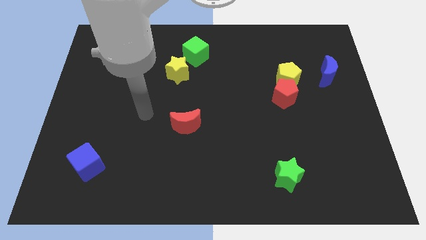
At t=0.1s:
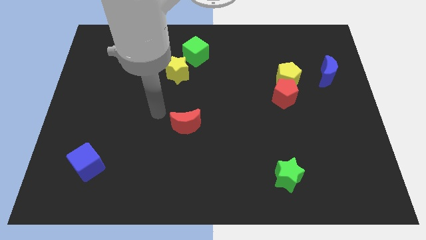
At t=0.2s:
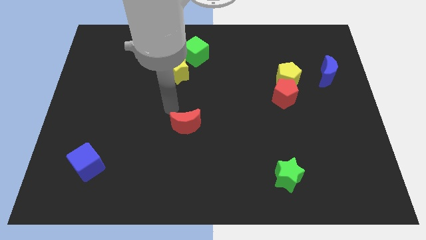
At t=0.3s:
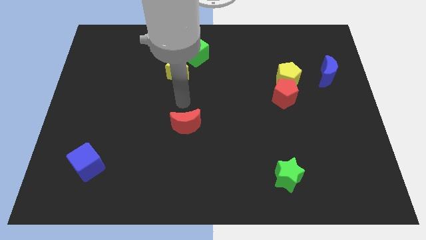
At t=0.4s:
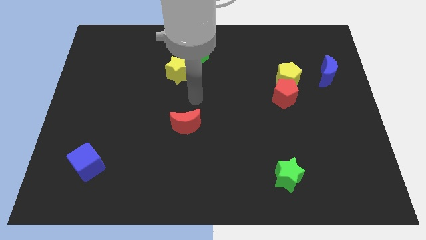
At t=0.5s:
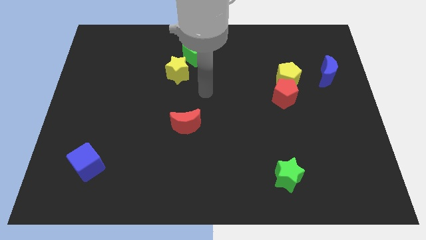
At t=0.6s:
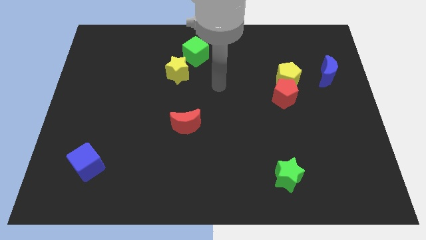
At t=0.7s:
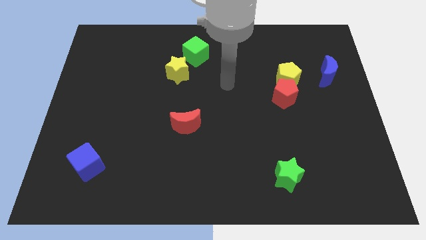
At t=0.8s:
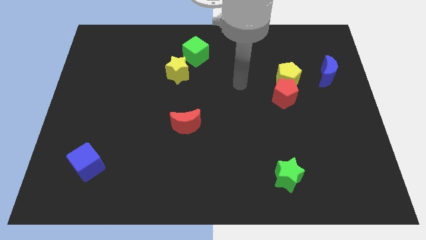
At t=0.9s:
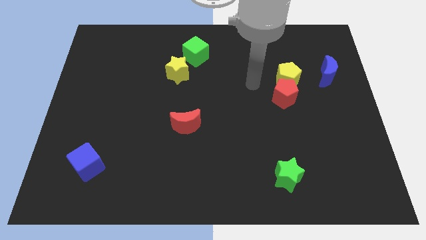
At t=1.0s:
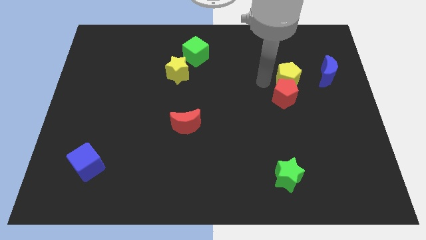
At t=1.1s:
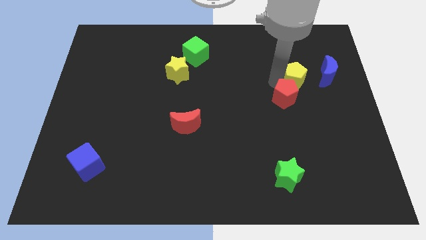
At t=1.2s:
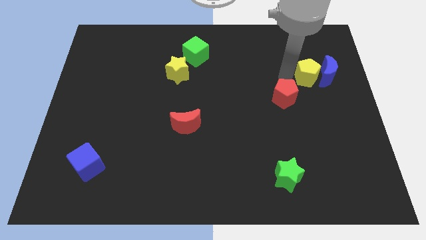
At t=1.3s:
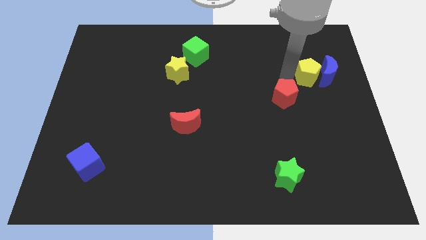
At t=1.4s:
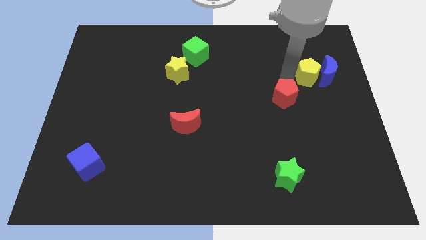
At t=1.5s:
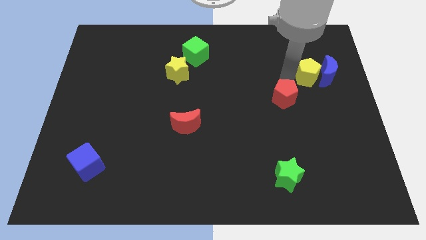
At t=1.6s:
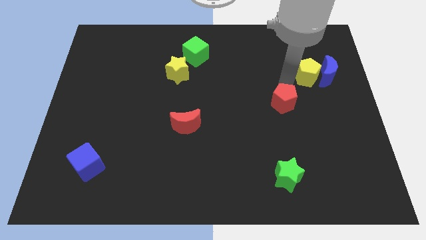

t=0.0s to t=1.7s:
pull the red pentagon apart from the yellow pentagon

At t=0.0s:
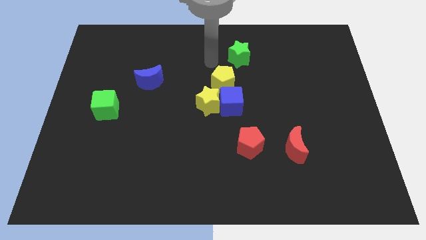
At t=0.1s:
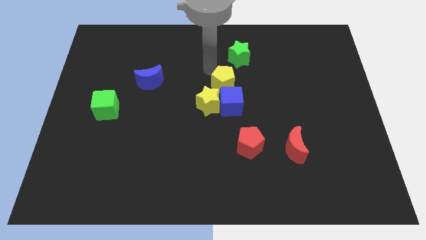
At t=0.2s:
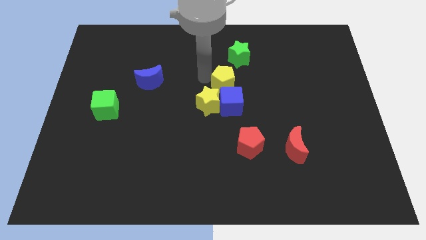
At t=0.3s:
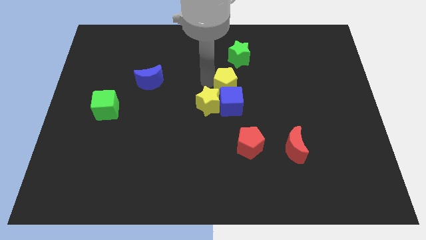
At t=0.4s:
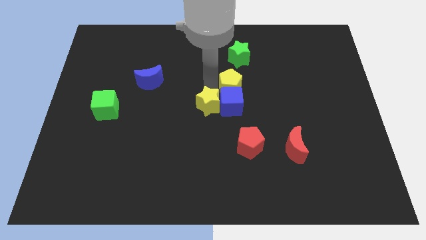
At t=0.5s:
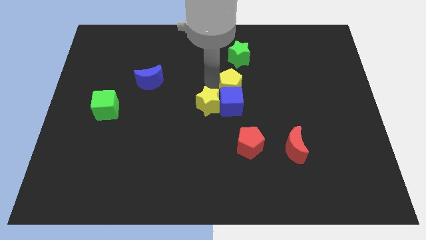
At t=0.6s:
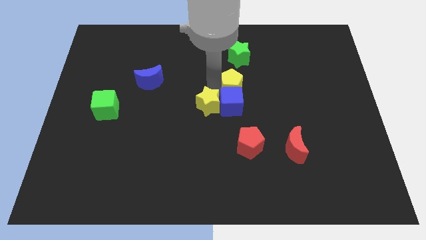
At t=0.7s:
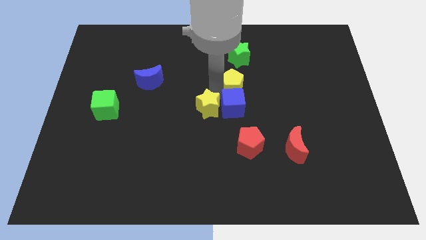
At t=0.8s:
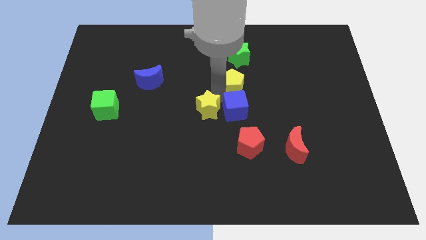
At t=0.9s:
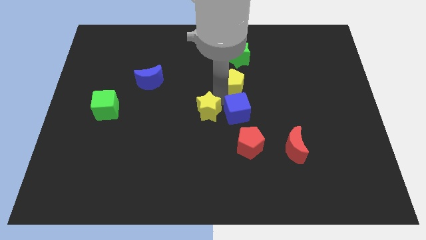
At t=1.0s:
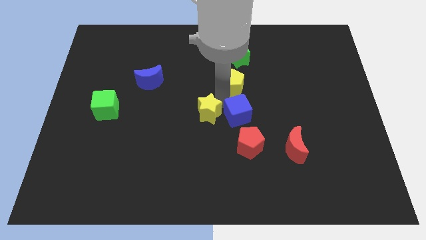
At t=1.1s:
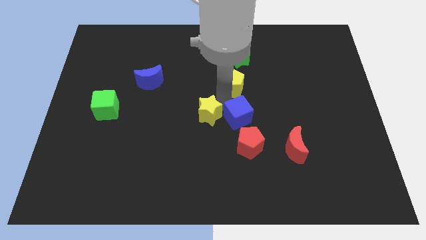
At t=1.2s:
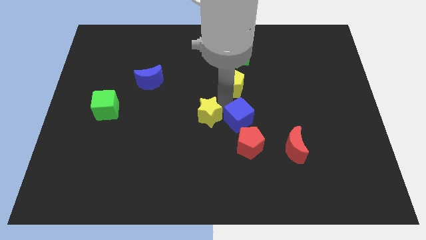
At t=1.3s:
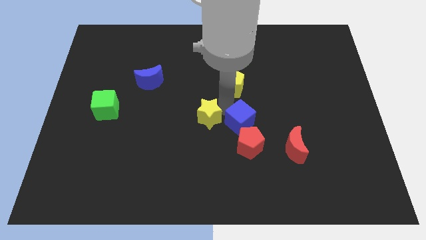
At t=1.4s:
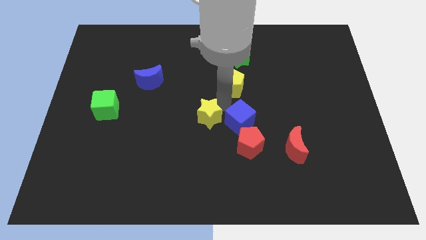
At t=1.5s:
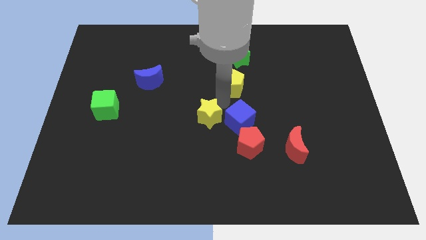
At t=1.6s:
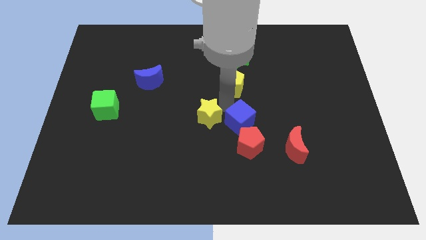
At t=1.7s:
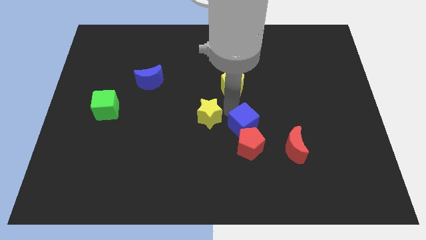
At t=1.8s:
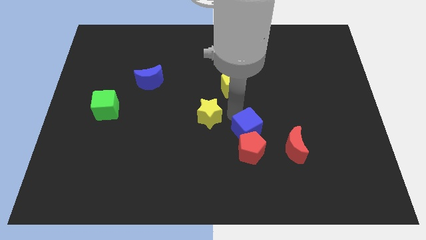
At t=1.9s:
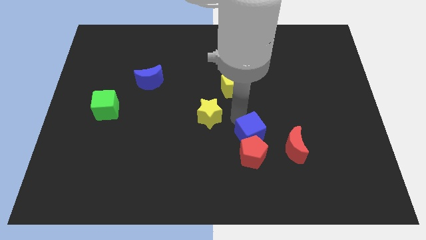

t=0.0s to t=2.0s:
separate the blue cube from the yellow star and yellow pentagon

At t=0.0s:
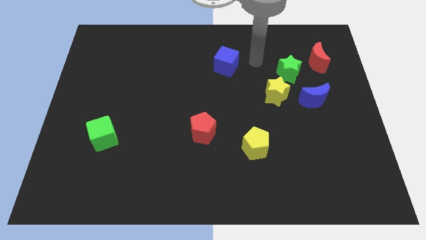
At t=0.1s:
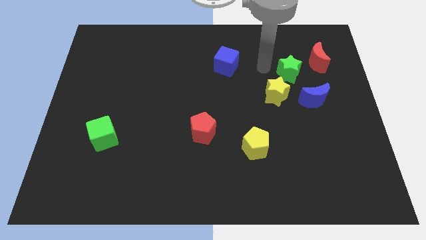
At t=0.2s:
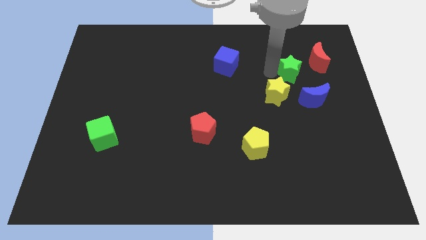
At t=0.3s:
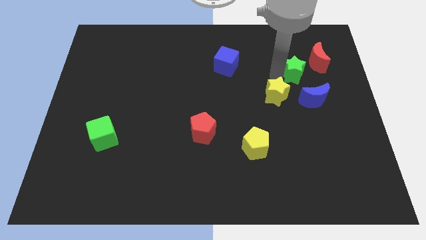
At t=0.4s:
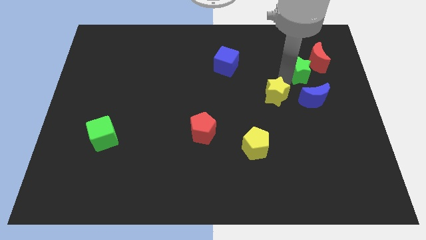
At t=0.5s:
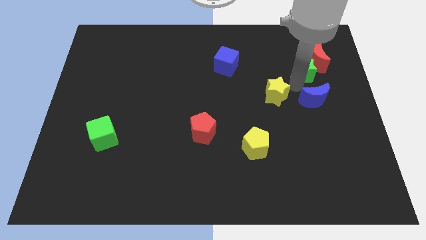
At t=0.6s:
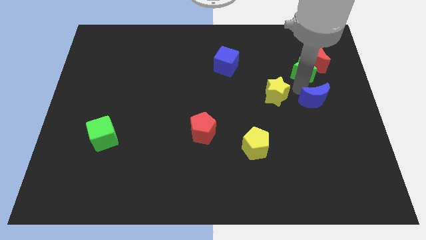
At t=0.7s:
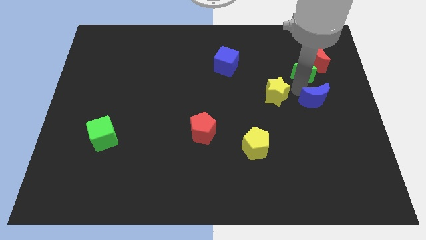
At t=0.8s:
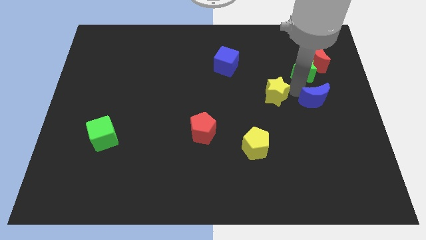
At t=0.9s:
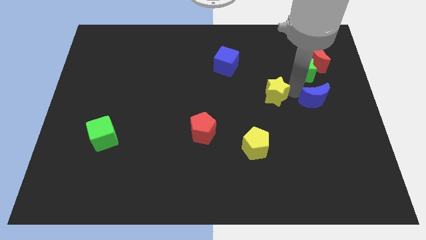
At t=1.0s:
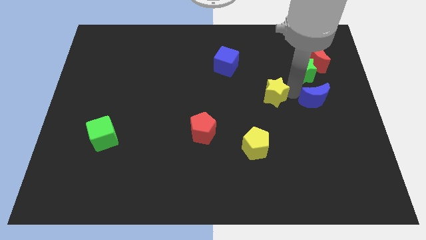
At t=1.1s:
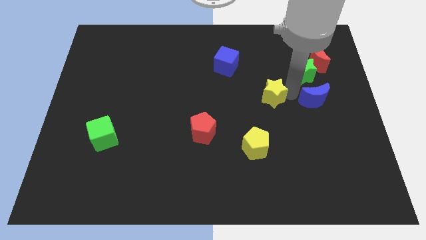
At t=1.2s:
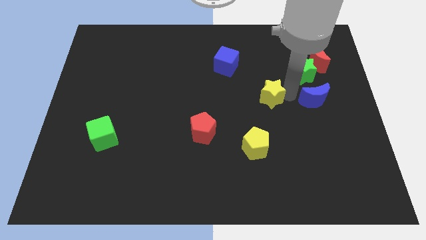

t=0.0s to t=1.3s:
separate the yellow star from the green star and blue moon

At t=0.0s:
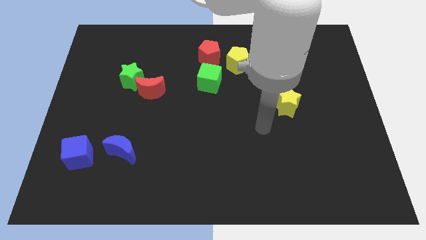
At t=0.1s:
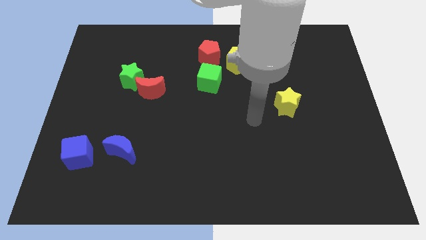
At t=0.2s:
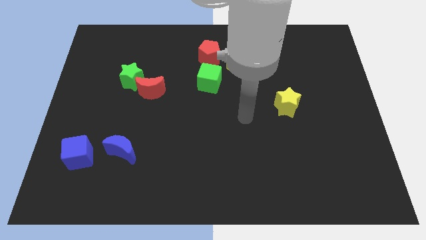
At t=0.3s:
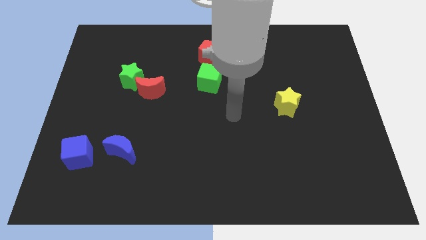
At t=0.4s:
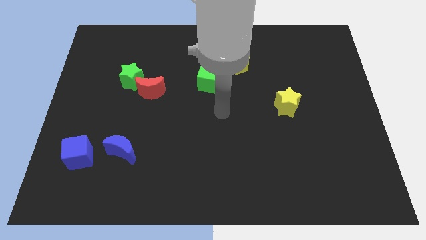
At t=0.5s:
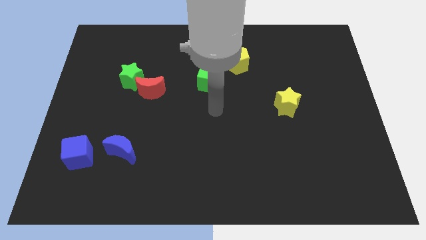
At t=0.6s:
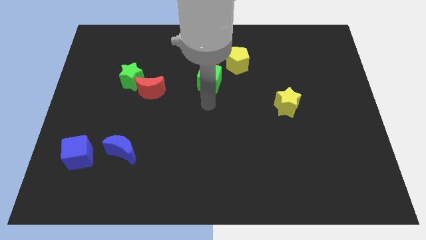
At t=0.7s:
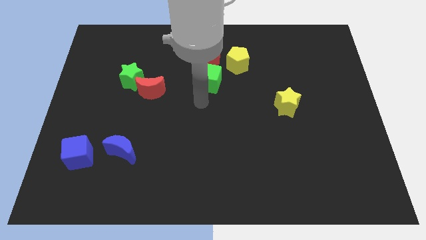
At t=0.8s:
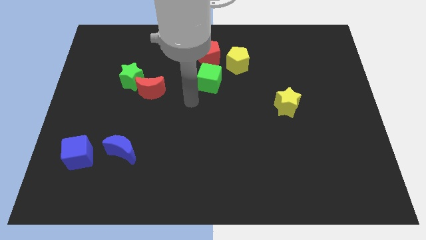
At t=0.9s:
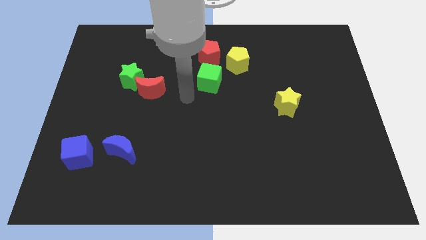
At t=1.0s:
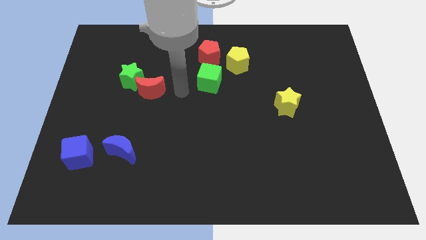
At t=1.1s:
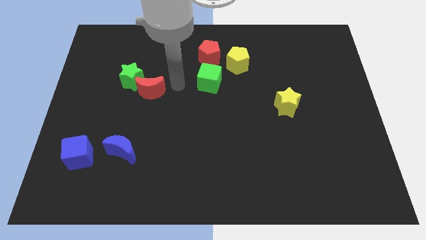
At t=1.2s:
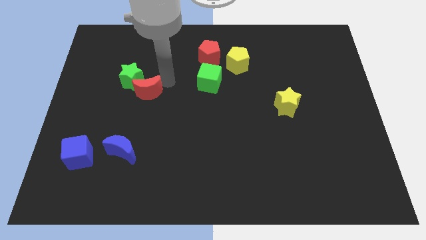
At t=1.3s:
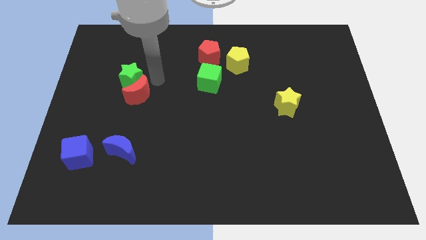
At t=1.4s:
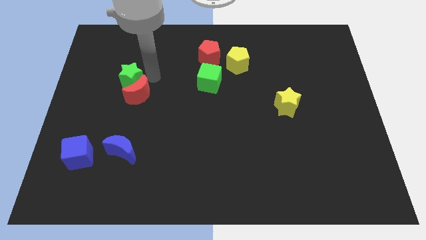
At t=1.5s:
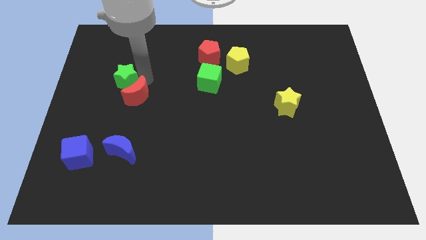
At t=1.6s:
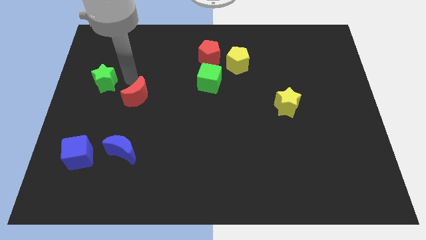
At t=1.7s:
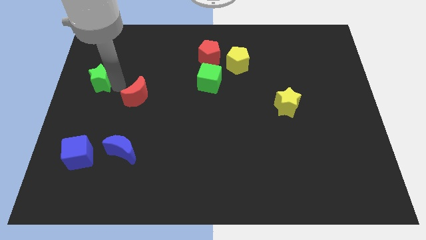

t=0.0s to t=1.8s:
separate the red moon from the green star

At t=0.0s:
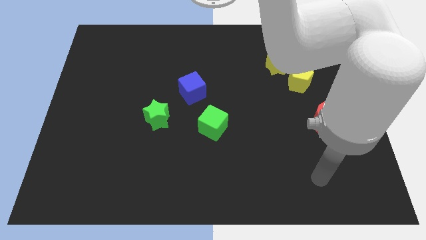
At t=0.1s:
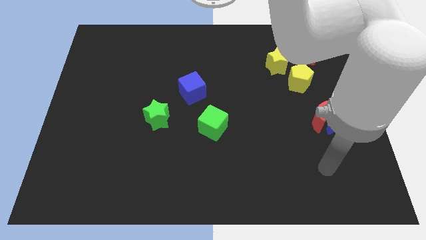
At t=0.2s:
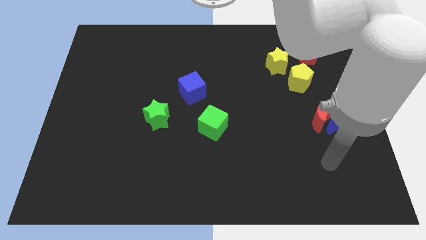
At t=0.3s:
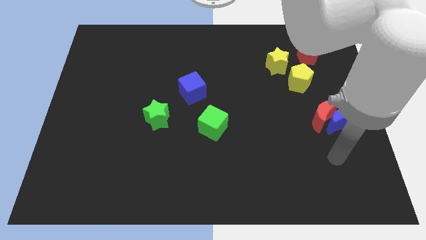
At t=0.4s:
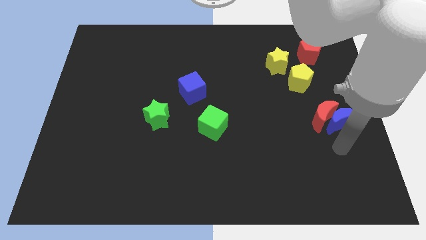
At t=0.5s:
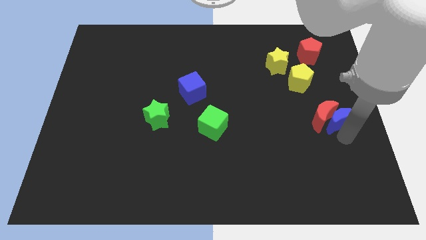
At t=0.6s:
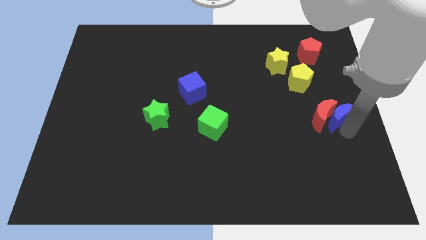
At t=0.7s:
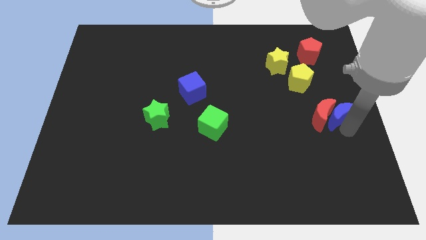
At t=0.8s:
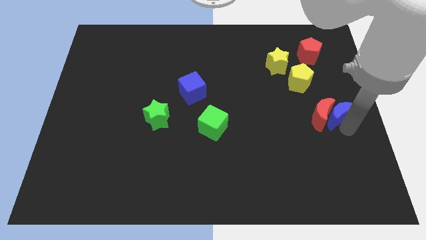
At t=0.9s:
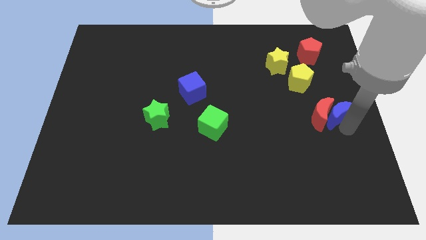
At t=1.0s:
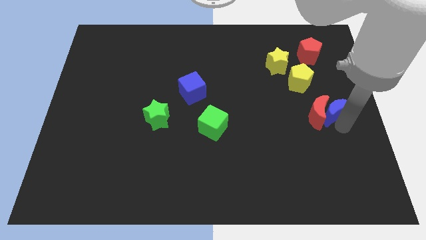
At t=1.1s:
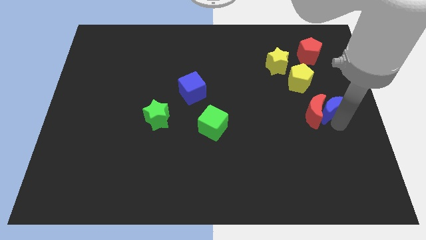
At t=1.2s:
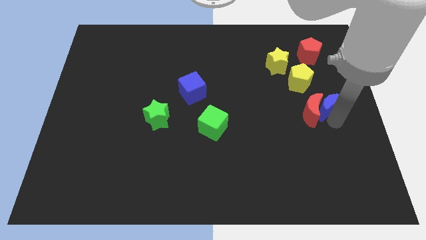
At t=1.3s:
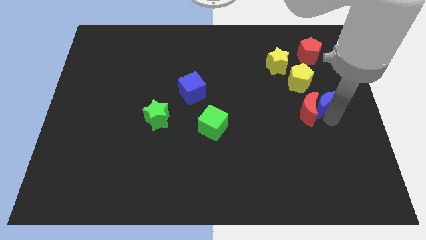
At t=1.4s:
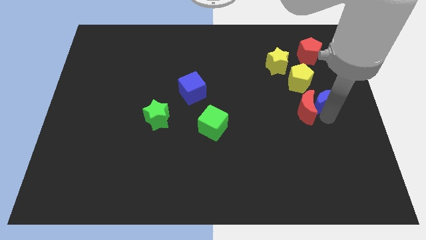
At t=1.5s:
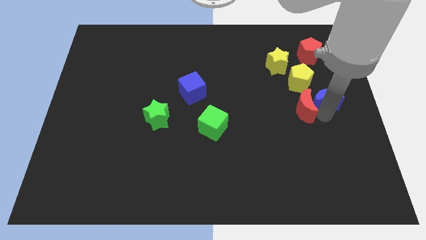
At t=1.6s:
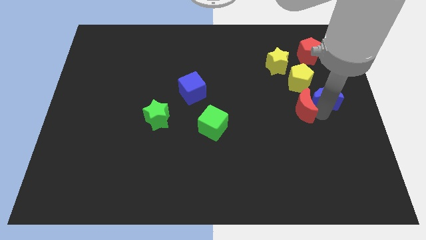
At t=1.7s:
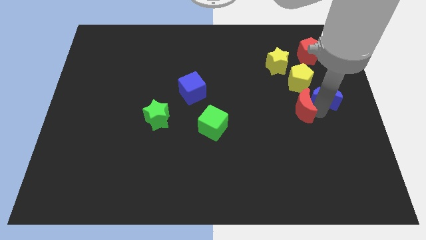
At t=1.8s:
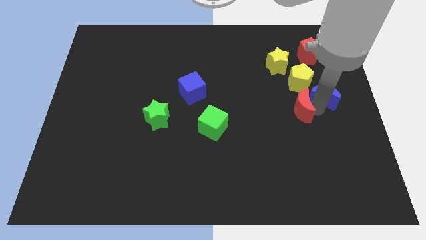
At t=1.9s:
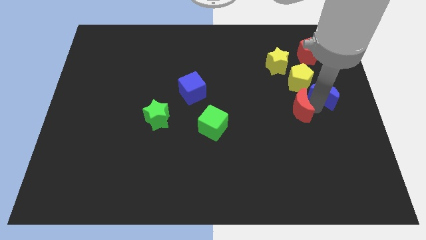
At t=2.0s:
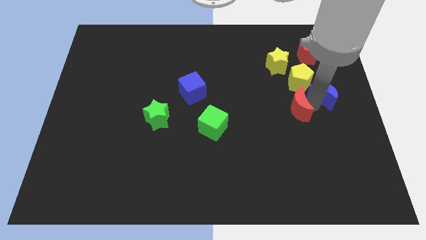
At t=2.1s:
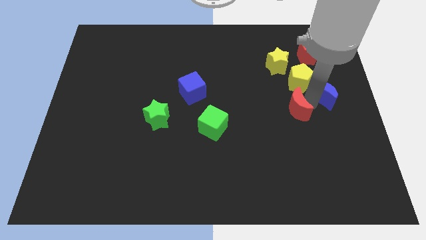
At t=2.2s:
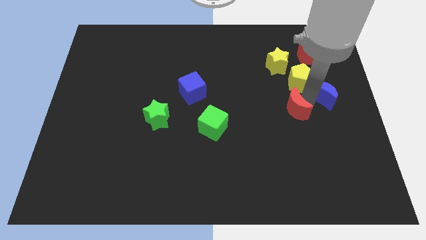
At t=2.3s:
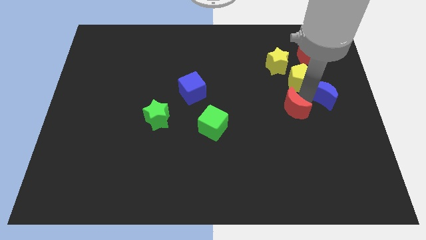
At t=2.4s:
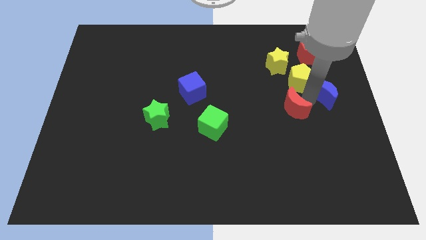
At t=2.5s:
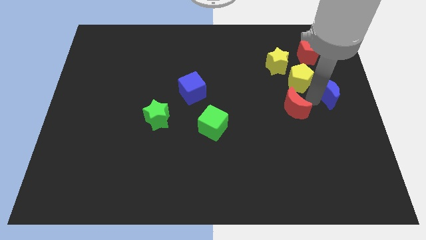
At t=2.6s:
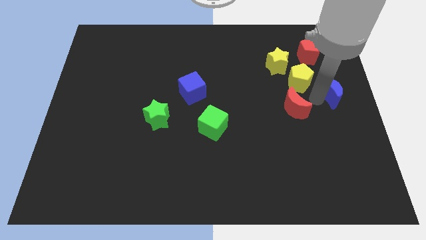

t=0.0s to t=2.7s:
move the red moon away from the blue moon
